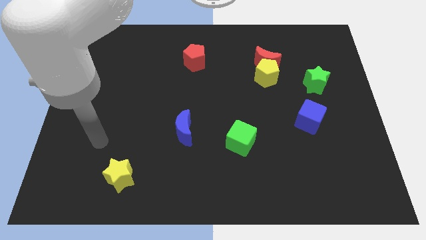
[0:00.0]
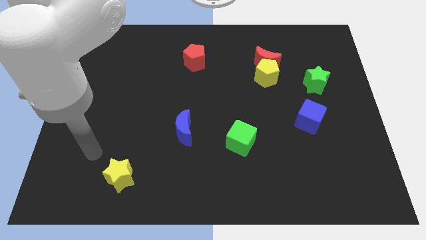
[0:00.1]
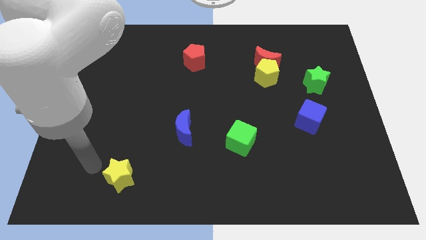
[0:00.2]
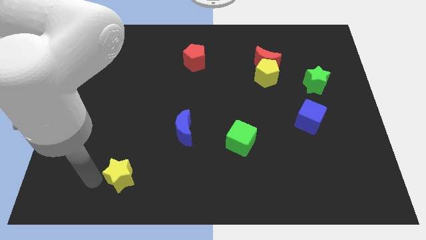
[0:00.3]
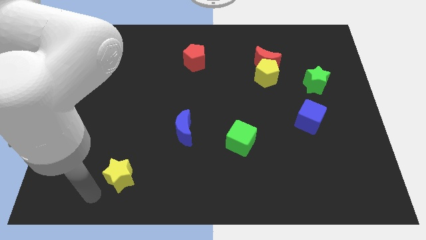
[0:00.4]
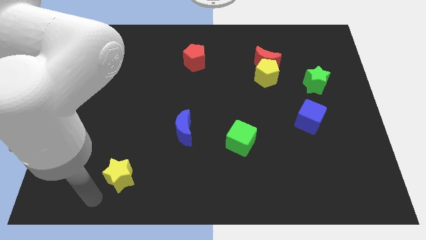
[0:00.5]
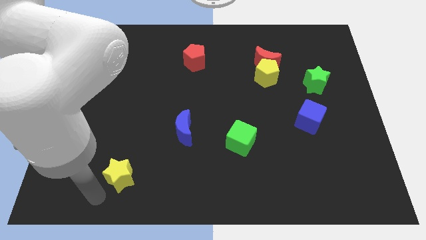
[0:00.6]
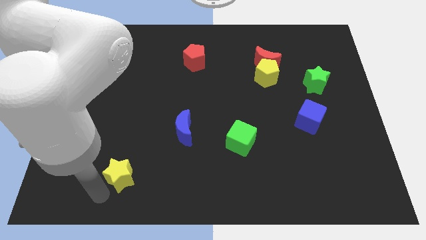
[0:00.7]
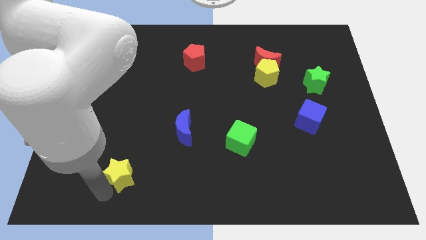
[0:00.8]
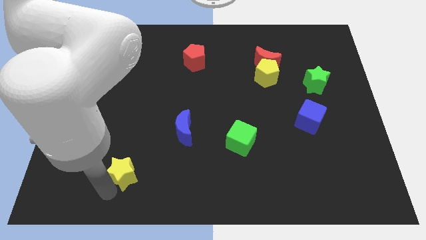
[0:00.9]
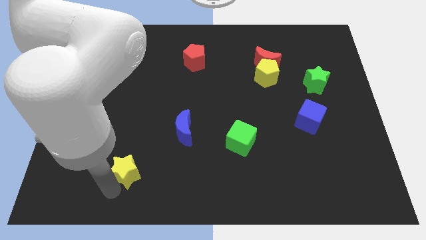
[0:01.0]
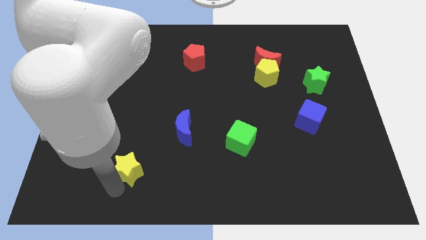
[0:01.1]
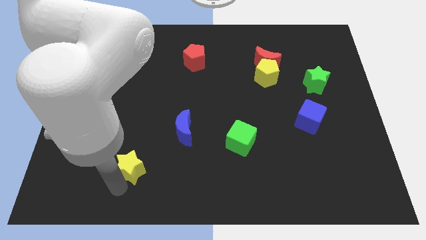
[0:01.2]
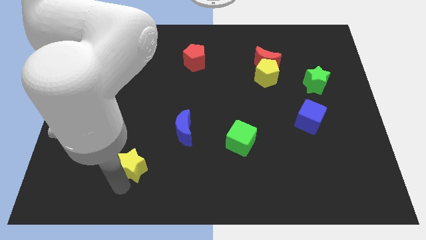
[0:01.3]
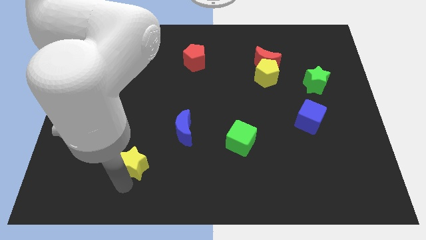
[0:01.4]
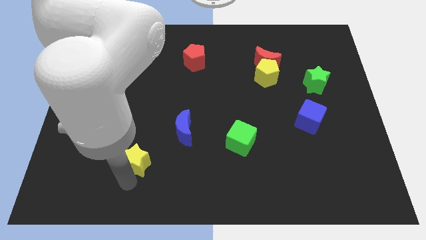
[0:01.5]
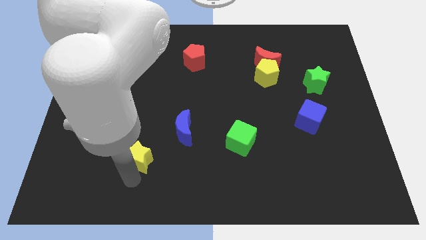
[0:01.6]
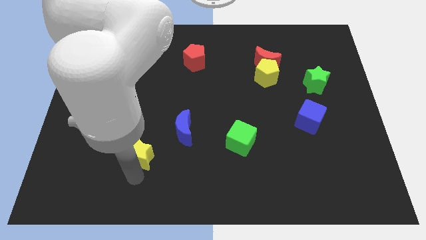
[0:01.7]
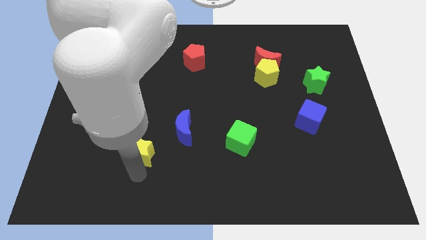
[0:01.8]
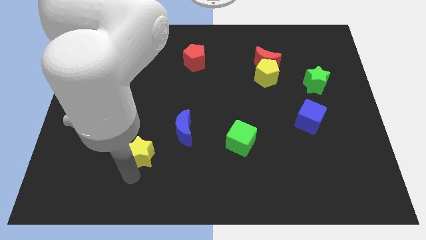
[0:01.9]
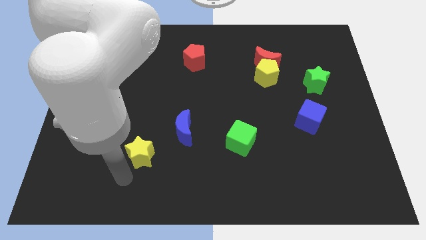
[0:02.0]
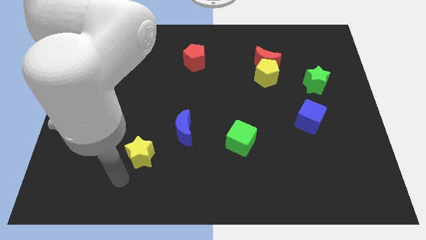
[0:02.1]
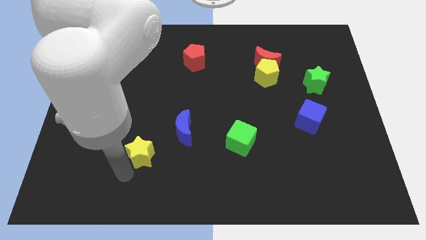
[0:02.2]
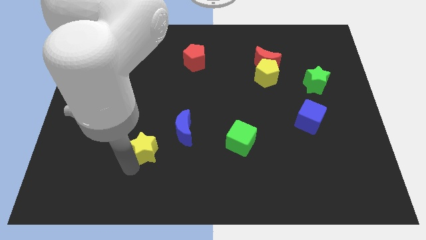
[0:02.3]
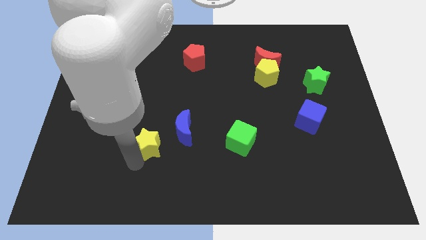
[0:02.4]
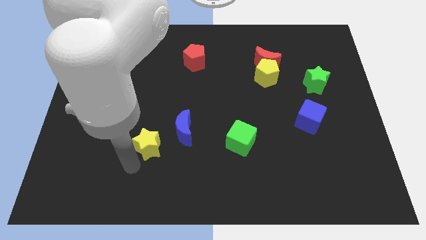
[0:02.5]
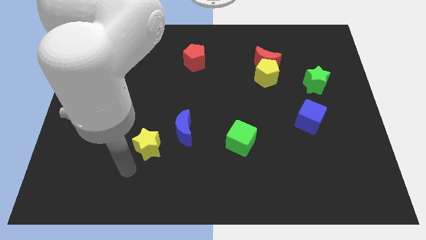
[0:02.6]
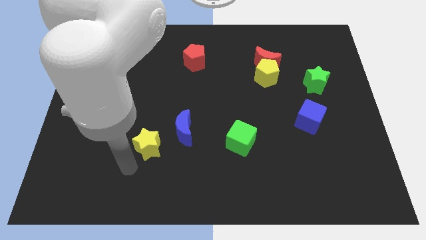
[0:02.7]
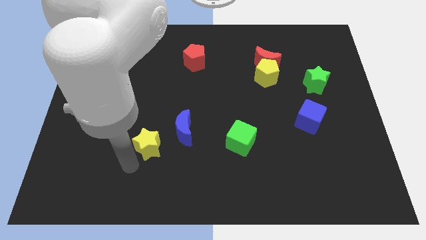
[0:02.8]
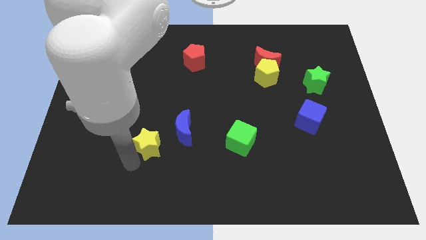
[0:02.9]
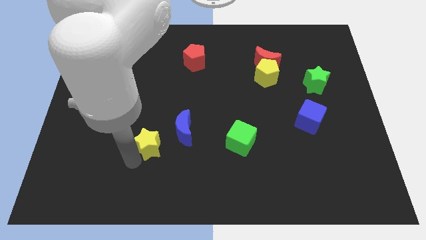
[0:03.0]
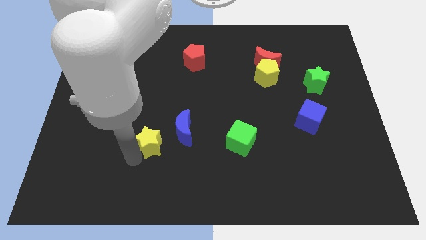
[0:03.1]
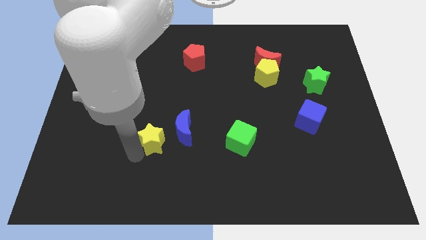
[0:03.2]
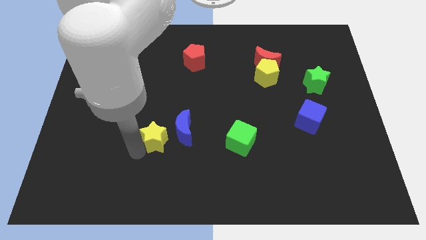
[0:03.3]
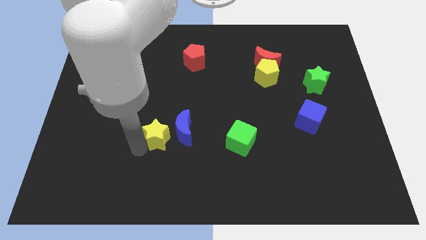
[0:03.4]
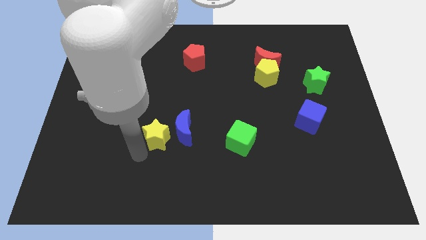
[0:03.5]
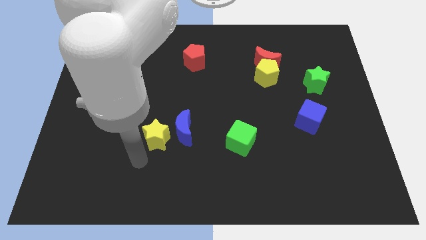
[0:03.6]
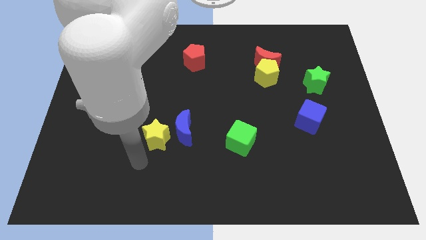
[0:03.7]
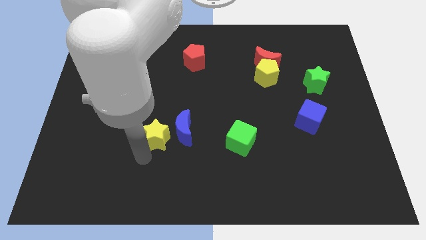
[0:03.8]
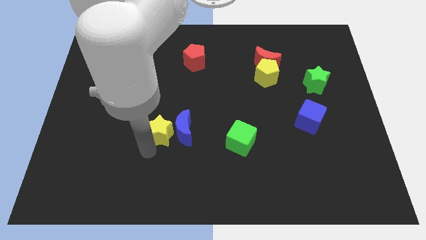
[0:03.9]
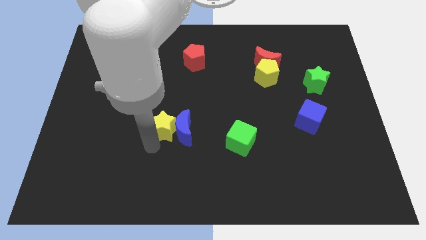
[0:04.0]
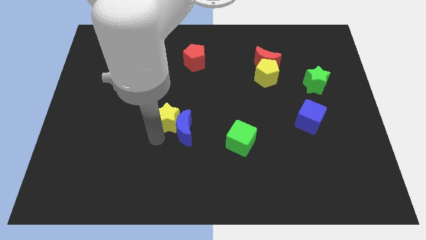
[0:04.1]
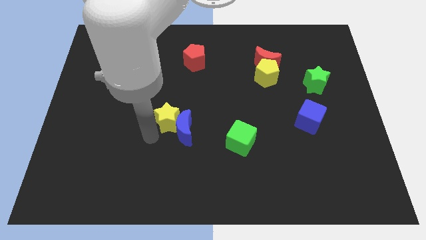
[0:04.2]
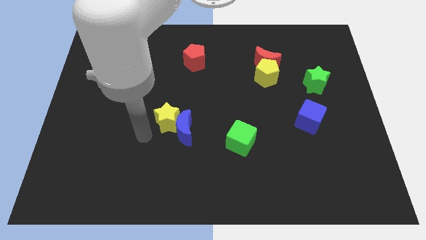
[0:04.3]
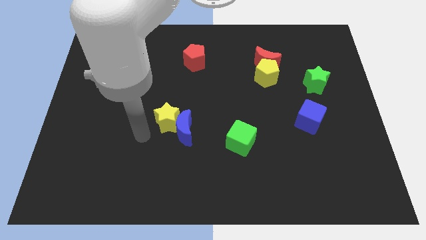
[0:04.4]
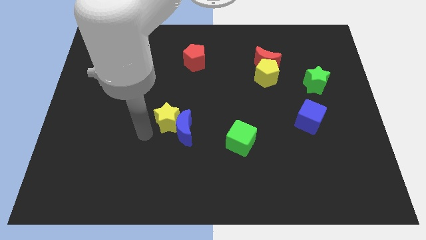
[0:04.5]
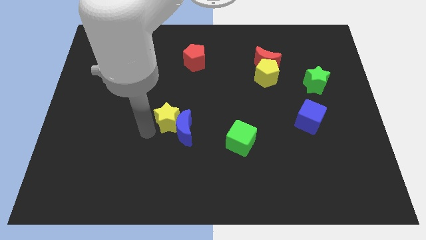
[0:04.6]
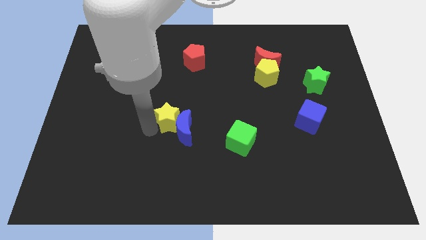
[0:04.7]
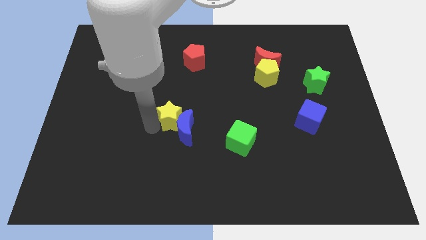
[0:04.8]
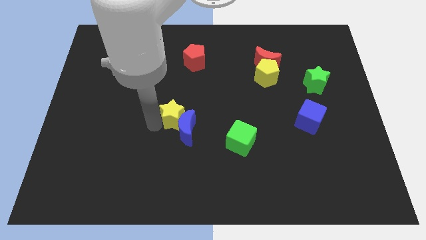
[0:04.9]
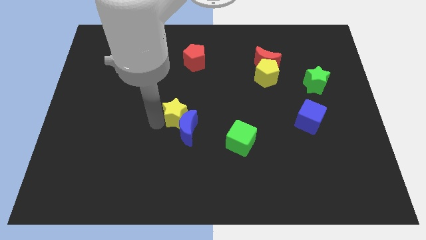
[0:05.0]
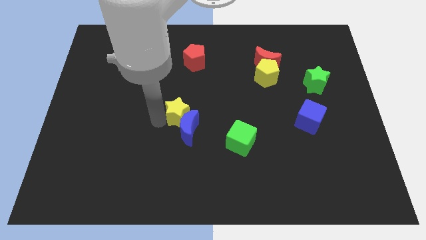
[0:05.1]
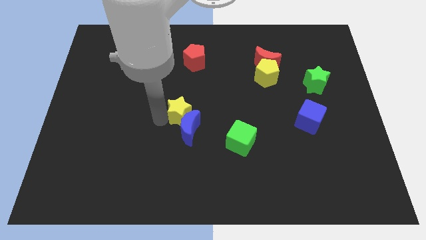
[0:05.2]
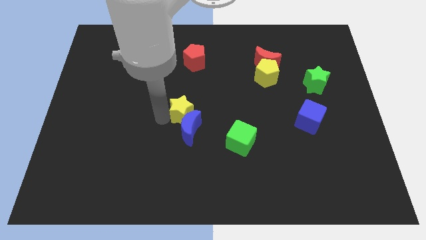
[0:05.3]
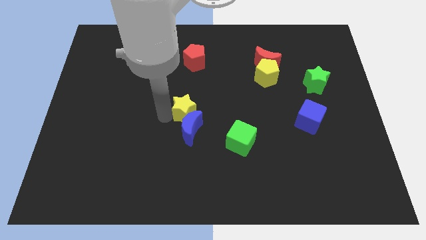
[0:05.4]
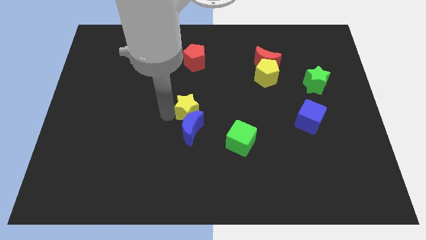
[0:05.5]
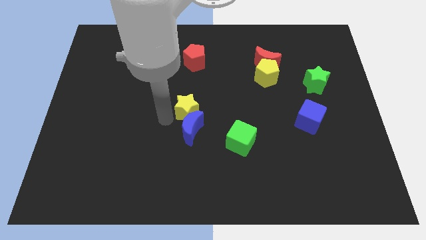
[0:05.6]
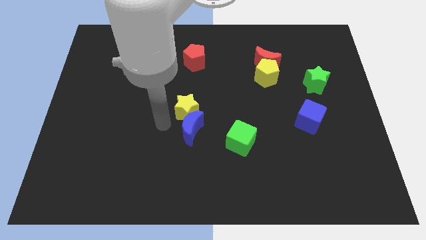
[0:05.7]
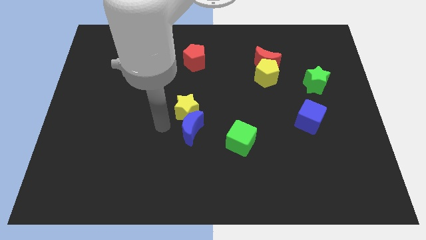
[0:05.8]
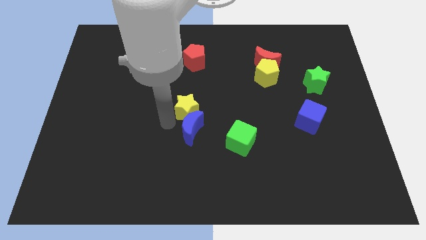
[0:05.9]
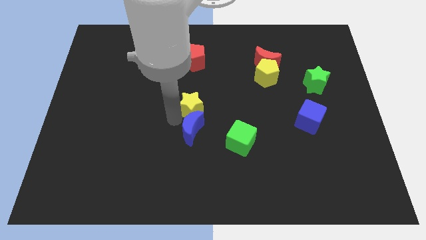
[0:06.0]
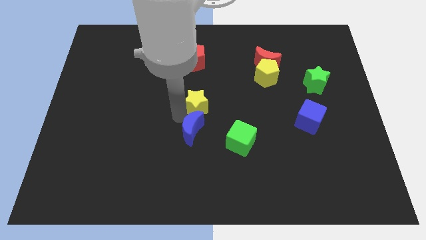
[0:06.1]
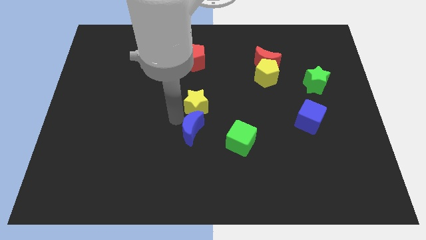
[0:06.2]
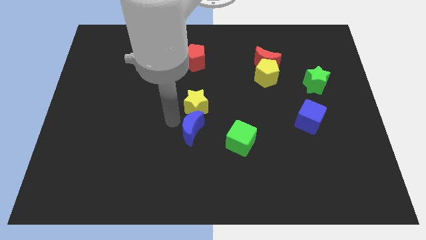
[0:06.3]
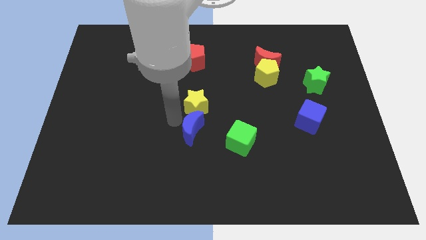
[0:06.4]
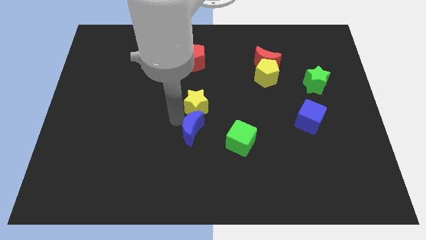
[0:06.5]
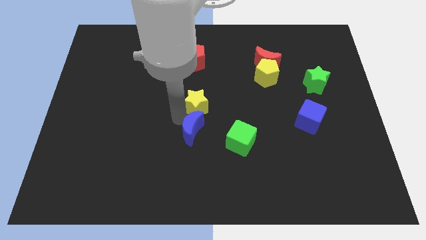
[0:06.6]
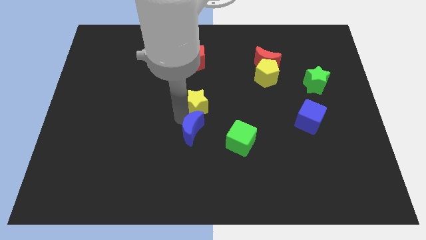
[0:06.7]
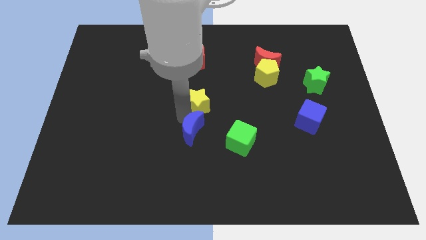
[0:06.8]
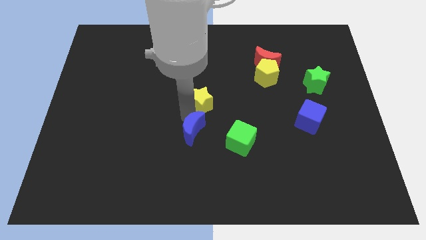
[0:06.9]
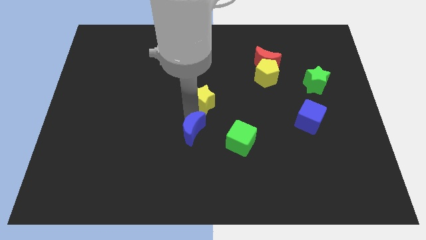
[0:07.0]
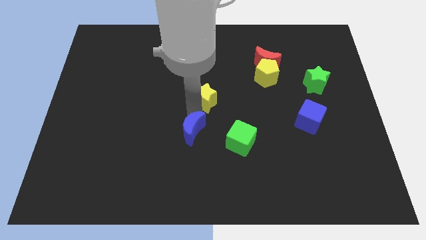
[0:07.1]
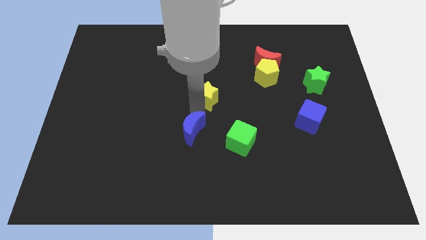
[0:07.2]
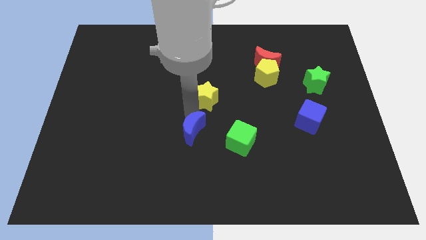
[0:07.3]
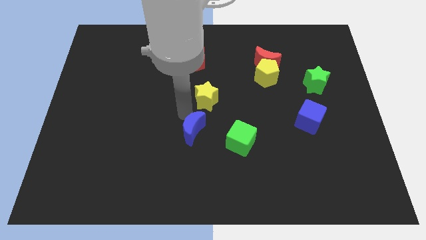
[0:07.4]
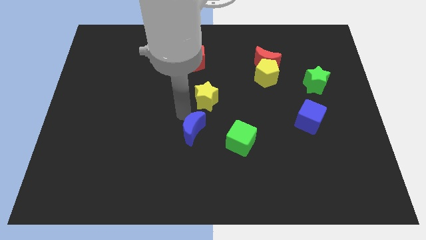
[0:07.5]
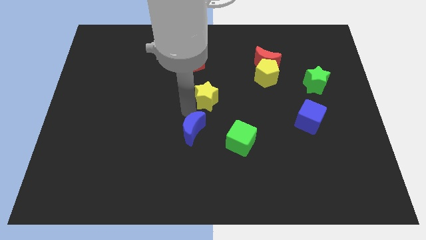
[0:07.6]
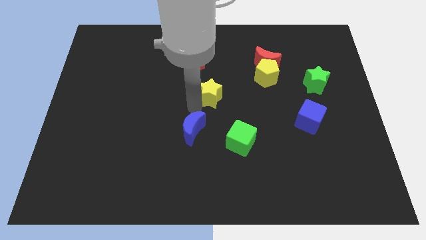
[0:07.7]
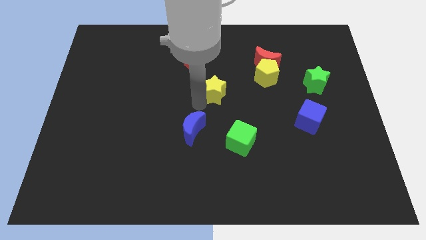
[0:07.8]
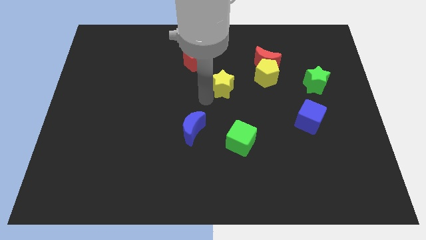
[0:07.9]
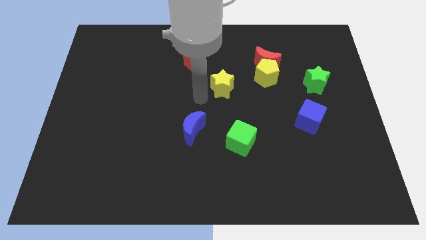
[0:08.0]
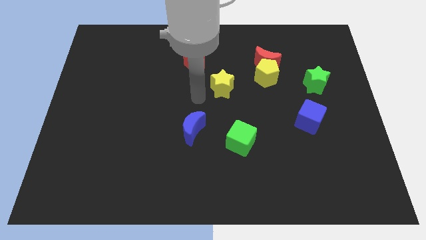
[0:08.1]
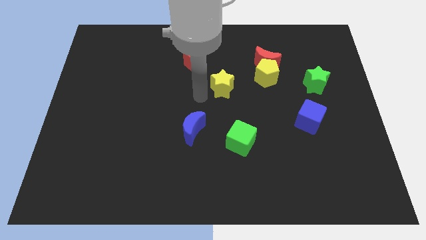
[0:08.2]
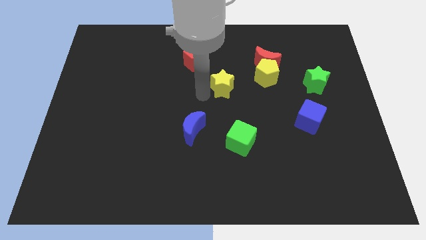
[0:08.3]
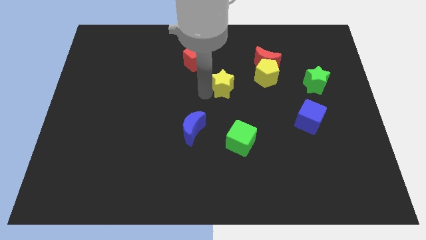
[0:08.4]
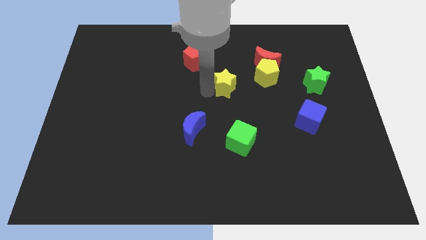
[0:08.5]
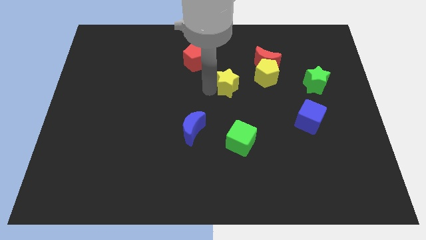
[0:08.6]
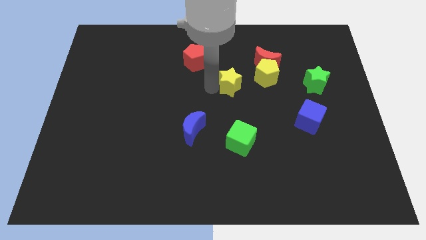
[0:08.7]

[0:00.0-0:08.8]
slide the yellow star diagonally down and to the left of the red moon
